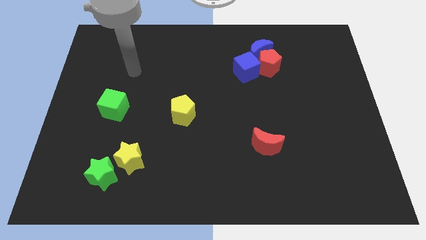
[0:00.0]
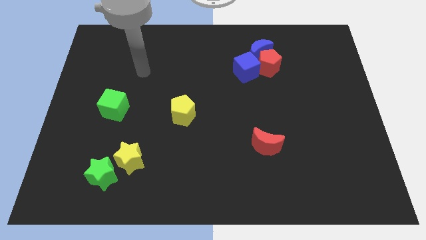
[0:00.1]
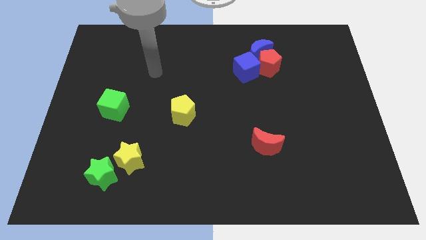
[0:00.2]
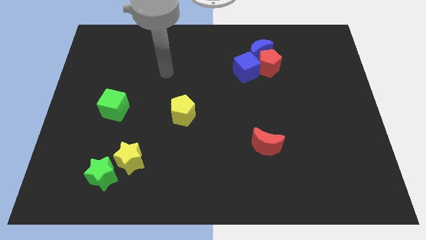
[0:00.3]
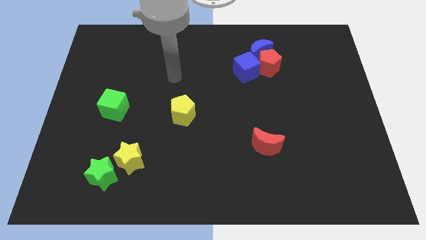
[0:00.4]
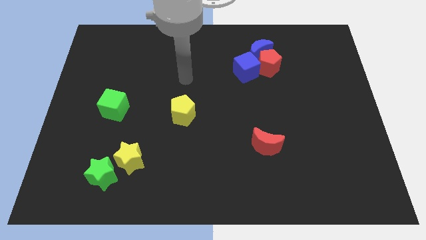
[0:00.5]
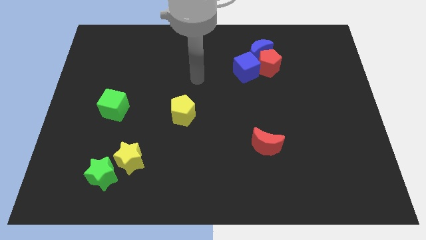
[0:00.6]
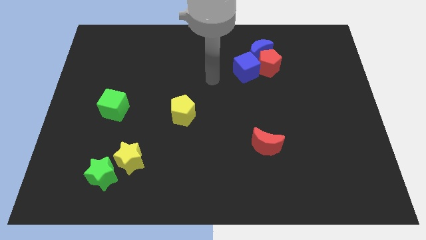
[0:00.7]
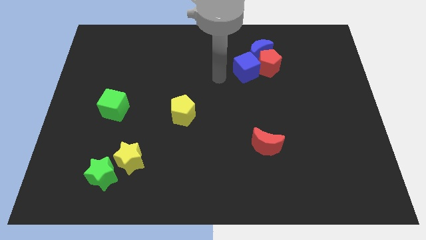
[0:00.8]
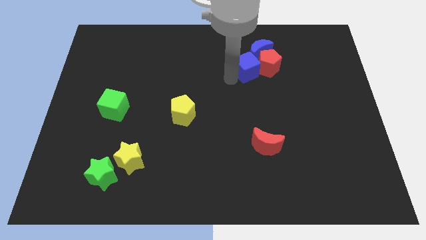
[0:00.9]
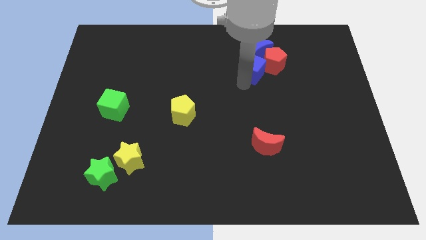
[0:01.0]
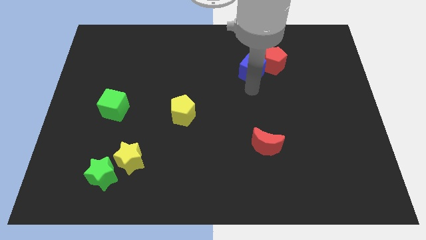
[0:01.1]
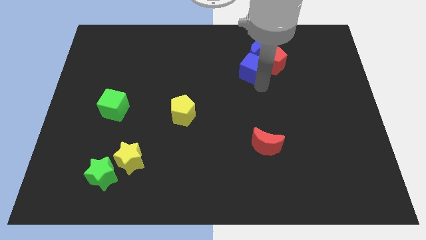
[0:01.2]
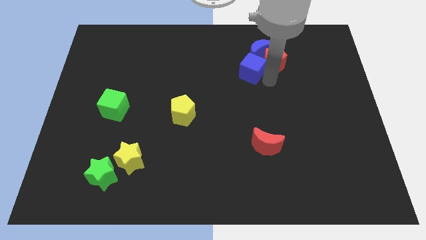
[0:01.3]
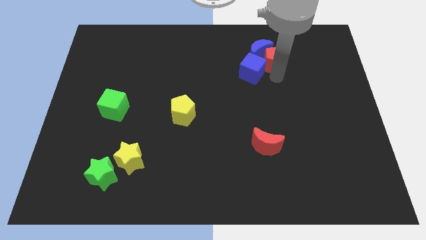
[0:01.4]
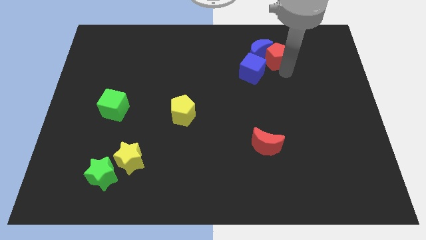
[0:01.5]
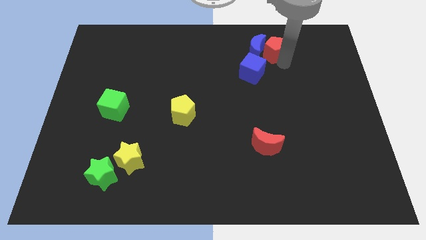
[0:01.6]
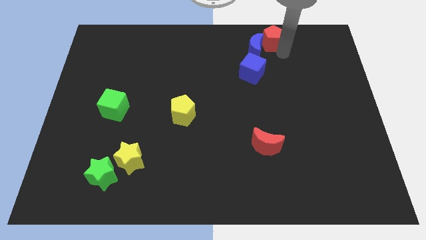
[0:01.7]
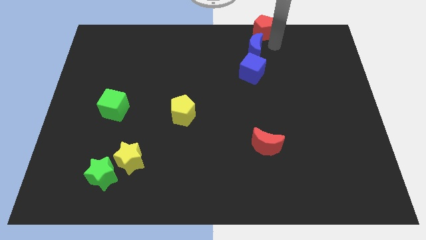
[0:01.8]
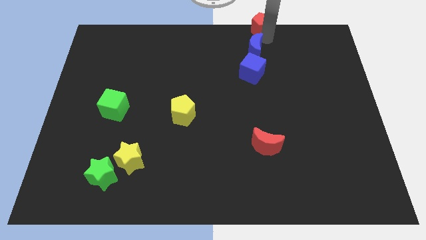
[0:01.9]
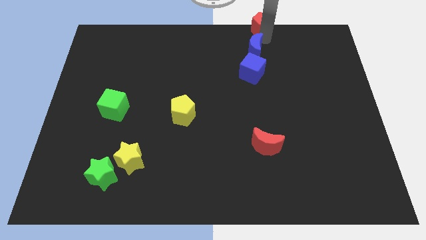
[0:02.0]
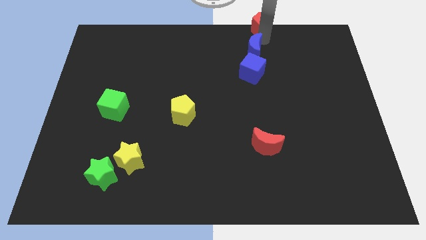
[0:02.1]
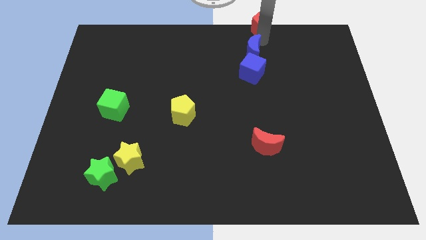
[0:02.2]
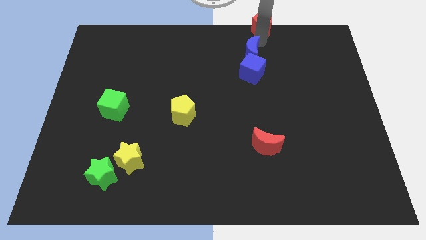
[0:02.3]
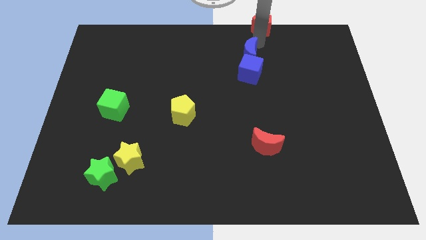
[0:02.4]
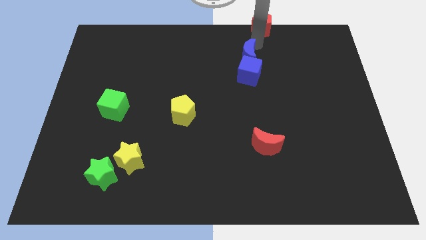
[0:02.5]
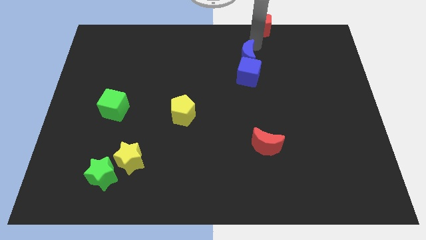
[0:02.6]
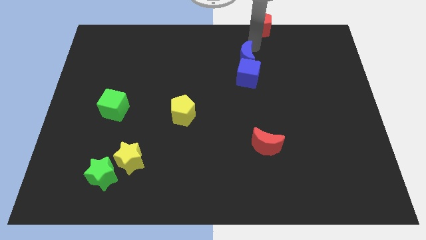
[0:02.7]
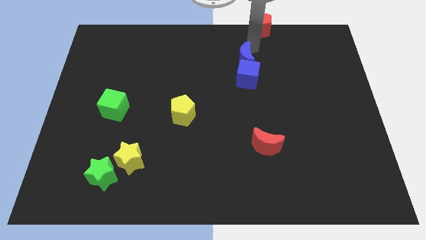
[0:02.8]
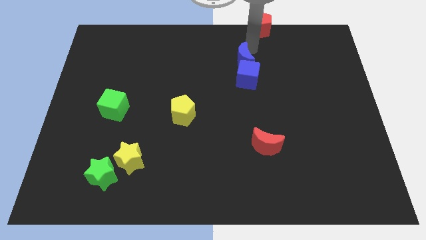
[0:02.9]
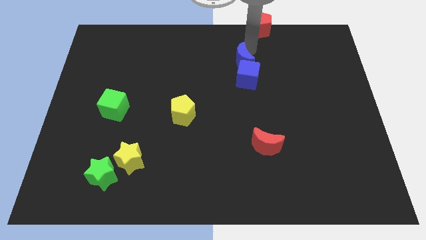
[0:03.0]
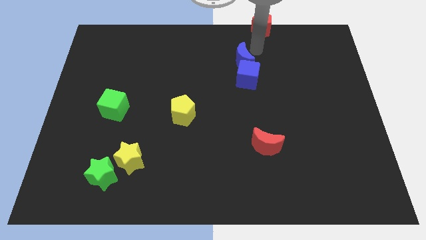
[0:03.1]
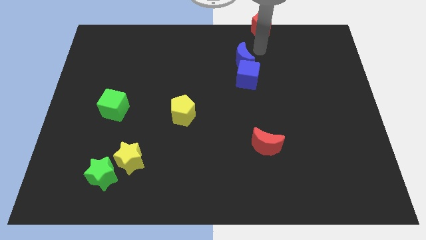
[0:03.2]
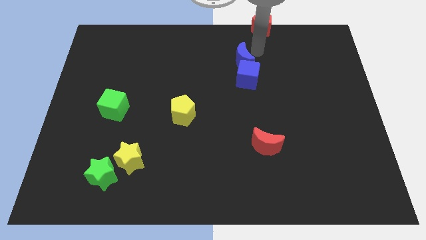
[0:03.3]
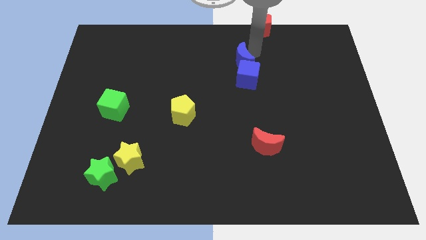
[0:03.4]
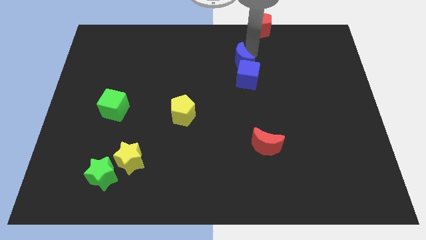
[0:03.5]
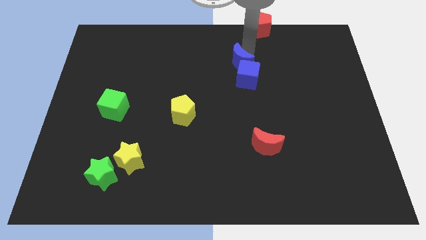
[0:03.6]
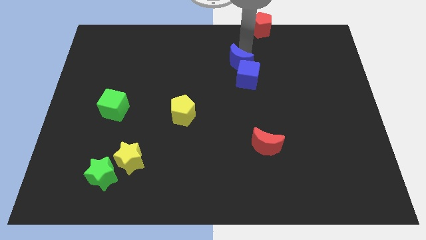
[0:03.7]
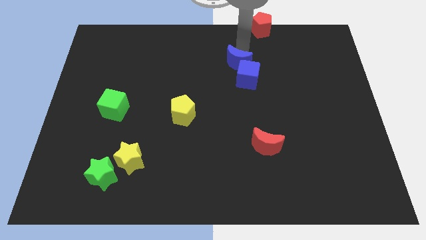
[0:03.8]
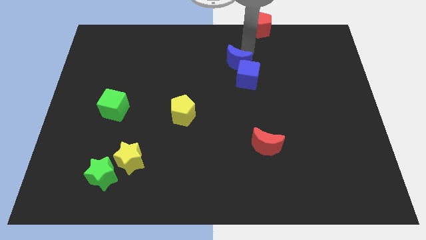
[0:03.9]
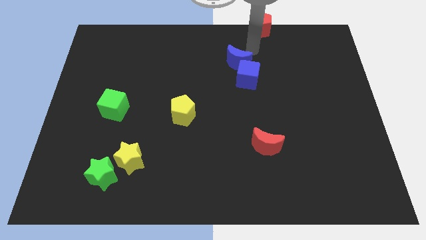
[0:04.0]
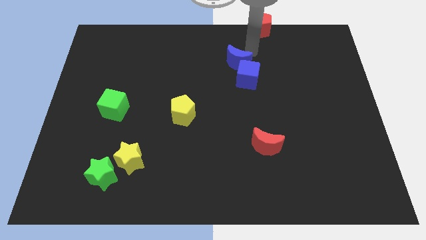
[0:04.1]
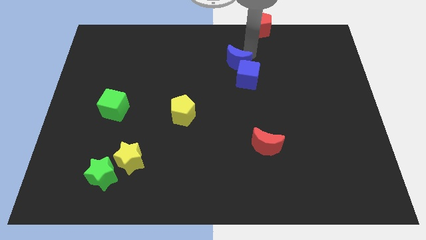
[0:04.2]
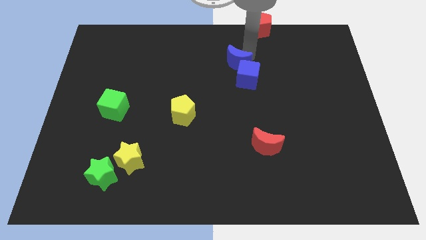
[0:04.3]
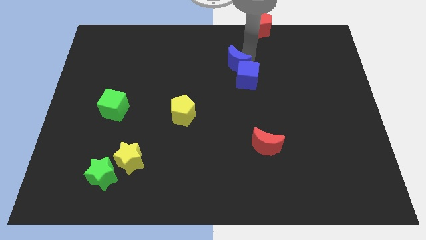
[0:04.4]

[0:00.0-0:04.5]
slide the blue moon somewhat diagonally down and left

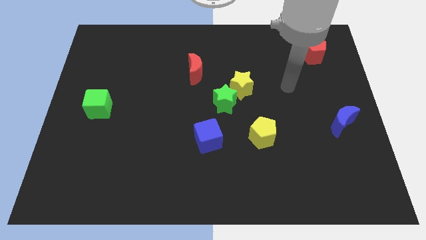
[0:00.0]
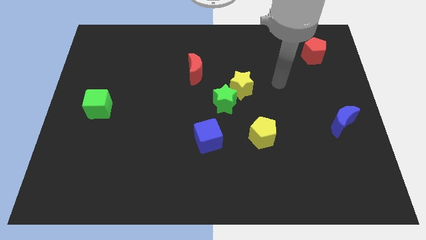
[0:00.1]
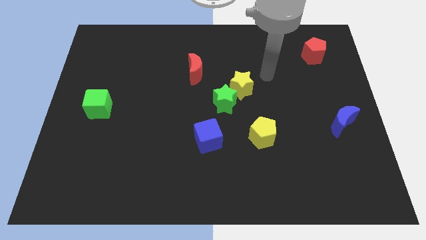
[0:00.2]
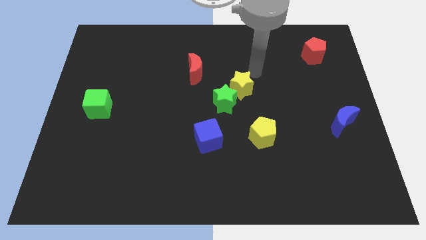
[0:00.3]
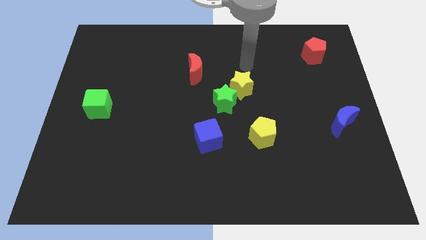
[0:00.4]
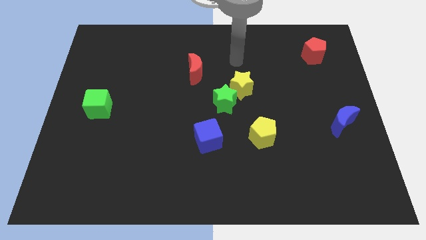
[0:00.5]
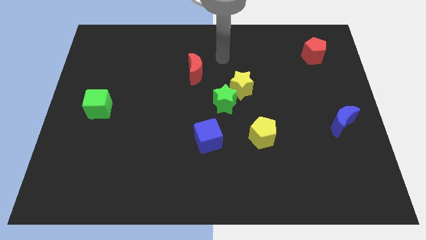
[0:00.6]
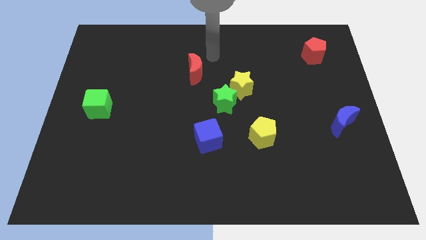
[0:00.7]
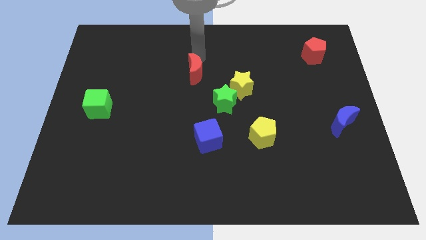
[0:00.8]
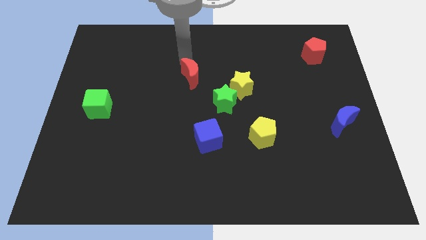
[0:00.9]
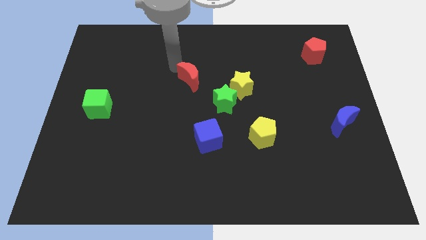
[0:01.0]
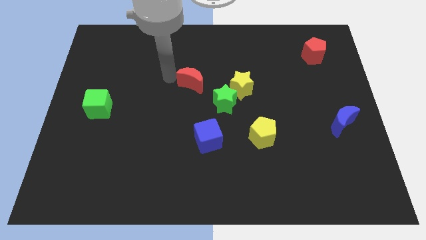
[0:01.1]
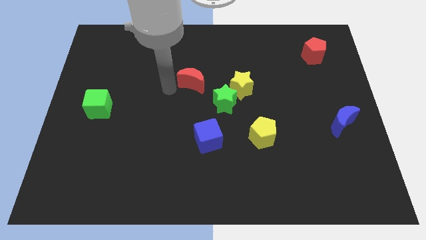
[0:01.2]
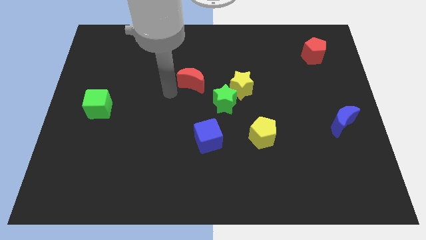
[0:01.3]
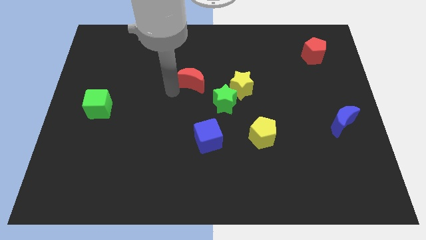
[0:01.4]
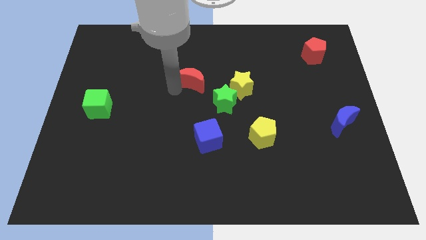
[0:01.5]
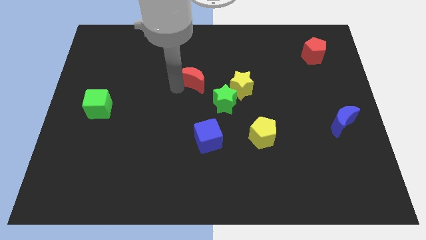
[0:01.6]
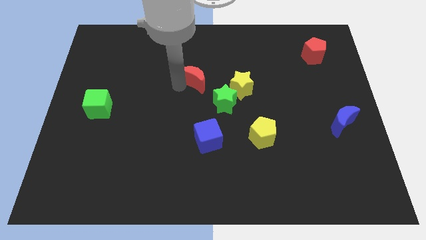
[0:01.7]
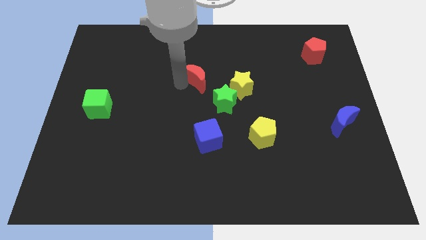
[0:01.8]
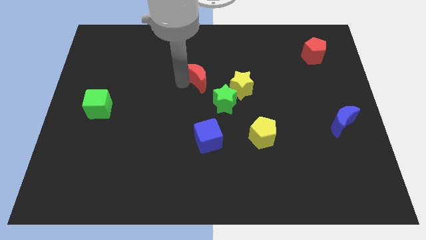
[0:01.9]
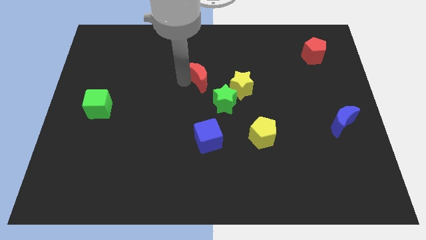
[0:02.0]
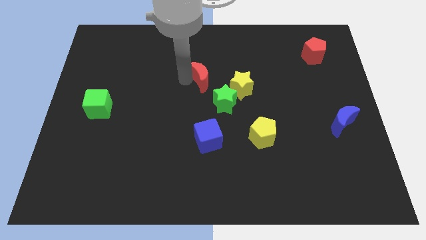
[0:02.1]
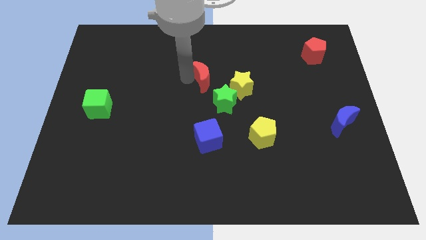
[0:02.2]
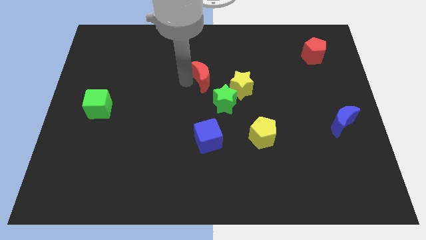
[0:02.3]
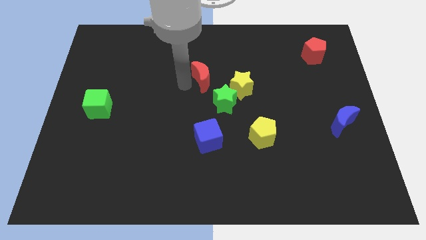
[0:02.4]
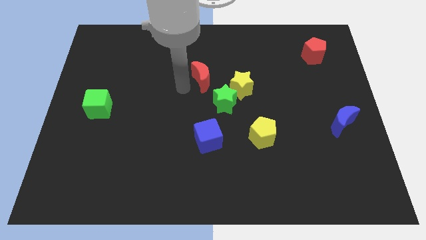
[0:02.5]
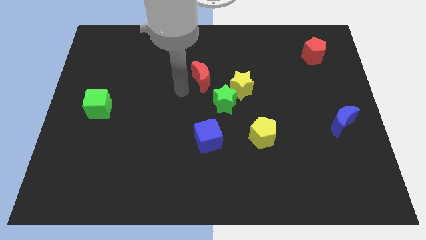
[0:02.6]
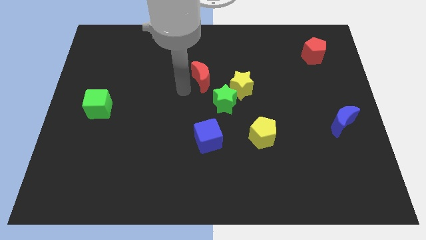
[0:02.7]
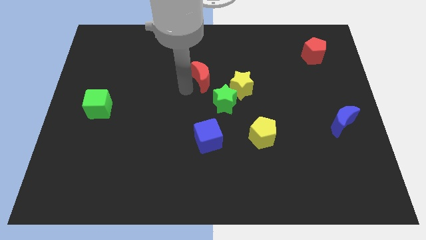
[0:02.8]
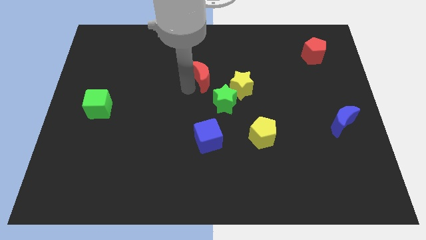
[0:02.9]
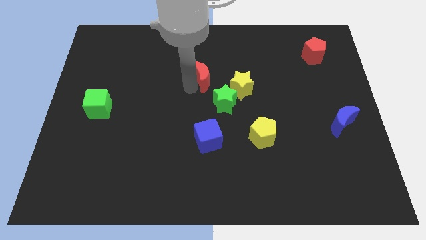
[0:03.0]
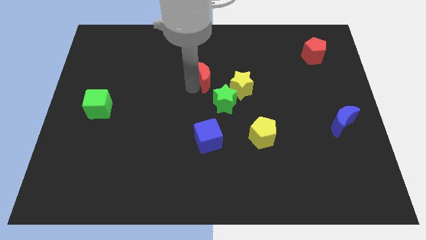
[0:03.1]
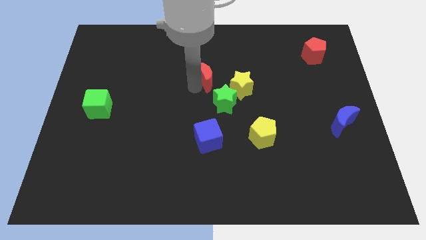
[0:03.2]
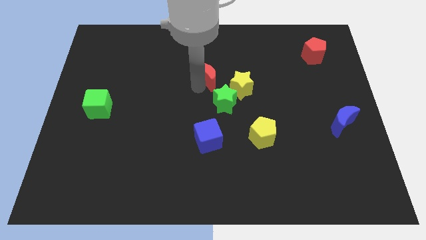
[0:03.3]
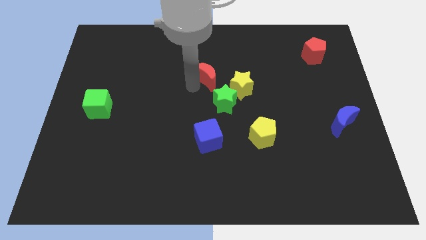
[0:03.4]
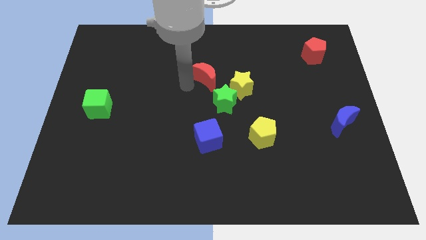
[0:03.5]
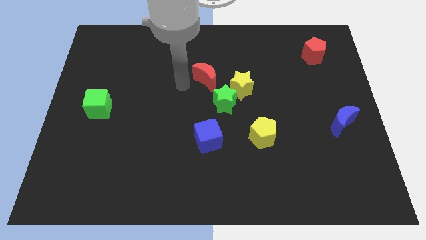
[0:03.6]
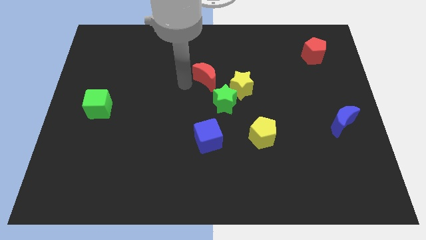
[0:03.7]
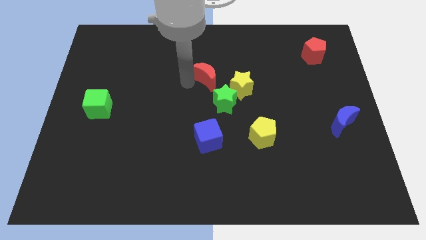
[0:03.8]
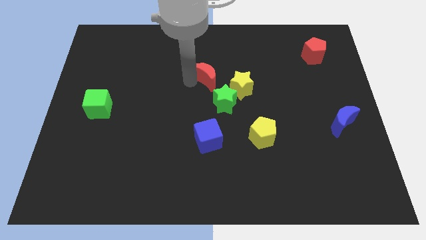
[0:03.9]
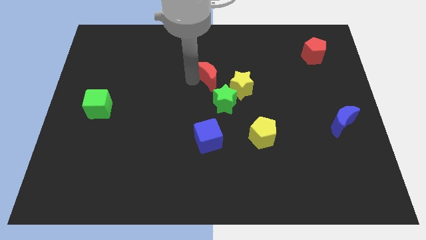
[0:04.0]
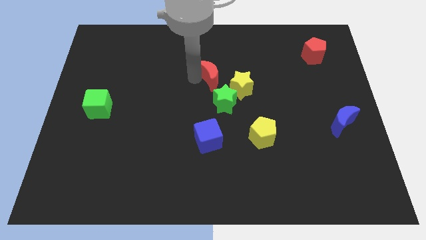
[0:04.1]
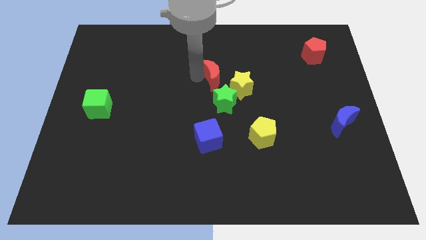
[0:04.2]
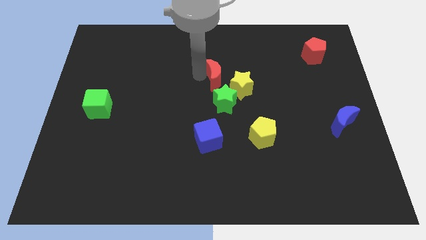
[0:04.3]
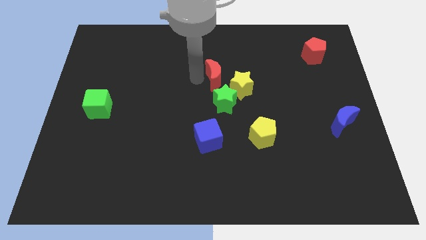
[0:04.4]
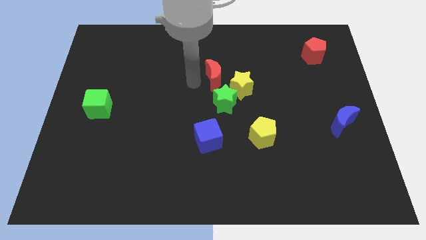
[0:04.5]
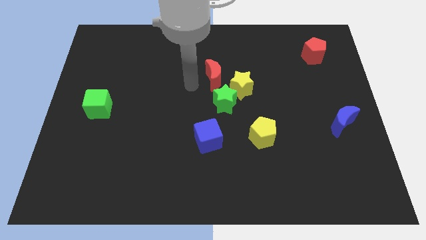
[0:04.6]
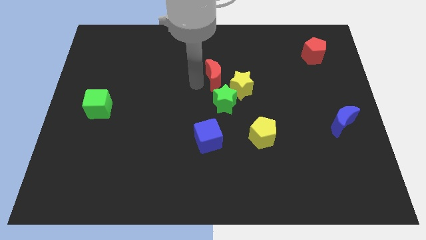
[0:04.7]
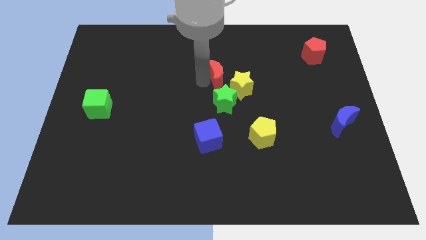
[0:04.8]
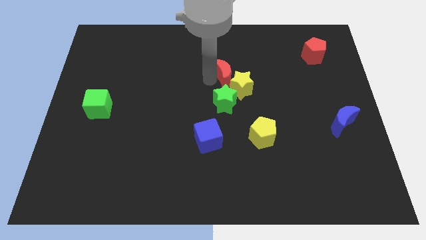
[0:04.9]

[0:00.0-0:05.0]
move the red moon to the right a bit
